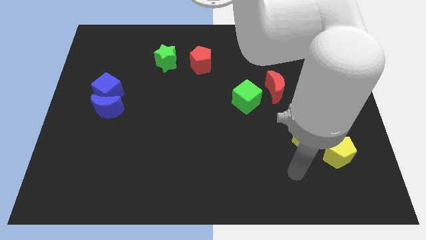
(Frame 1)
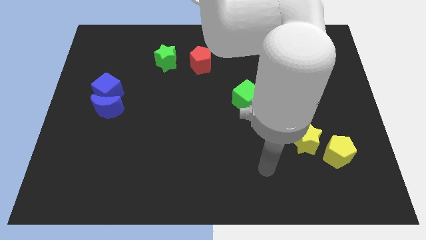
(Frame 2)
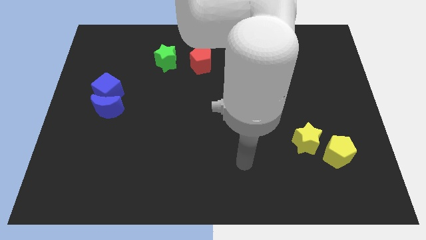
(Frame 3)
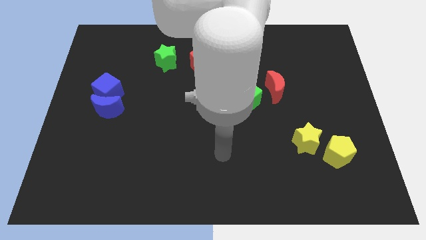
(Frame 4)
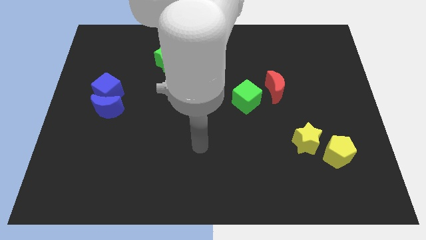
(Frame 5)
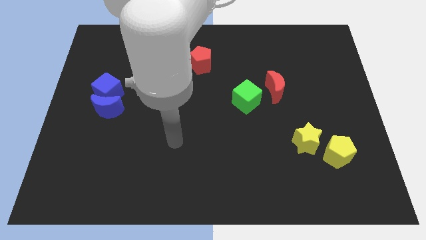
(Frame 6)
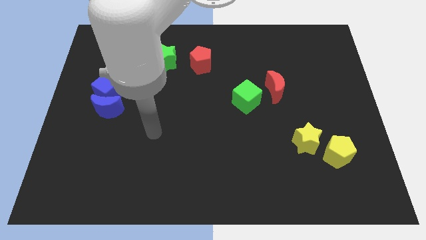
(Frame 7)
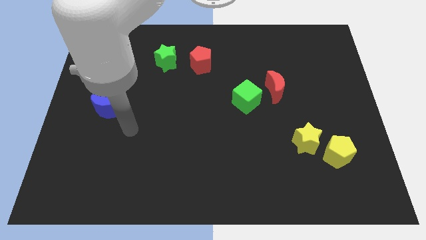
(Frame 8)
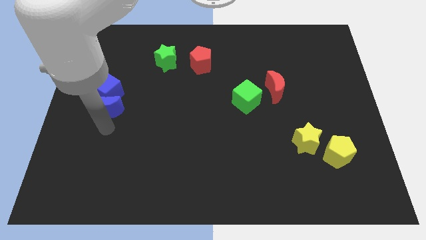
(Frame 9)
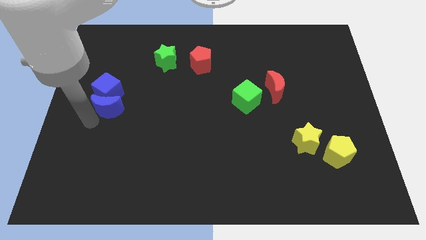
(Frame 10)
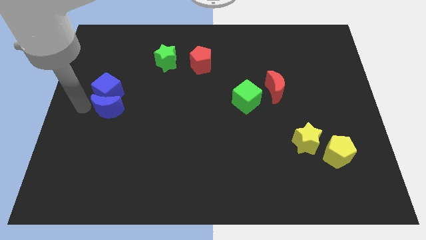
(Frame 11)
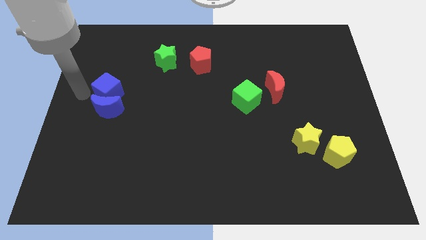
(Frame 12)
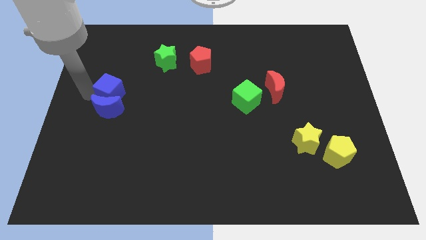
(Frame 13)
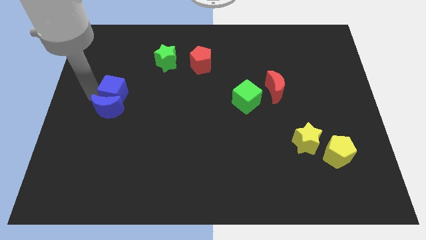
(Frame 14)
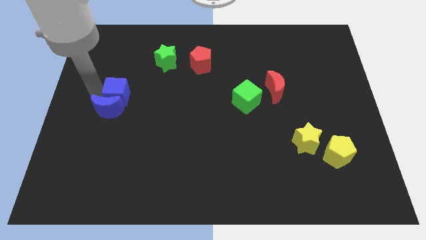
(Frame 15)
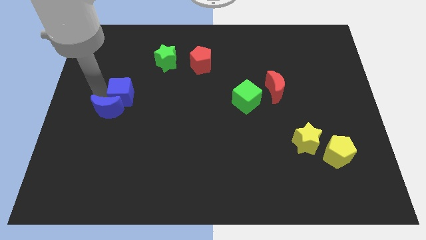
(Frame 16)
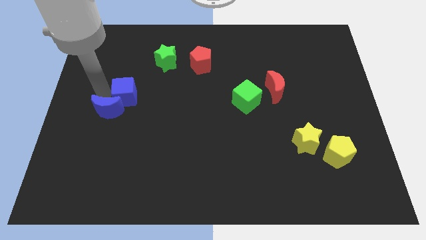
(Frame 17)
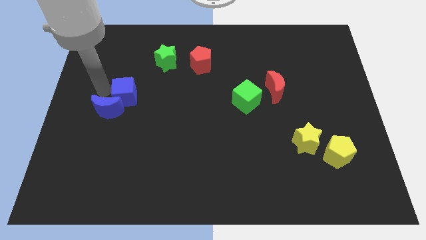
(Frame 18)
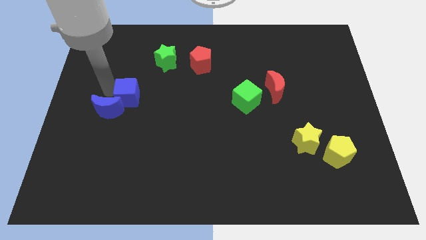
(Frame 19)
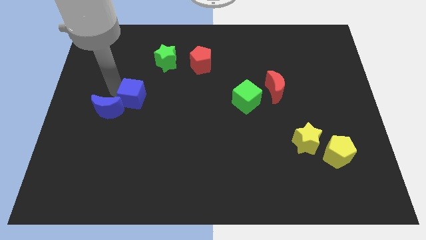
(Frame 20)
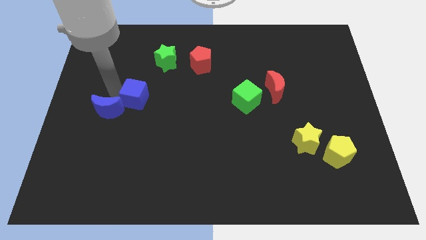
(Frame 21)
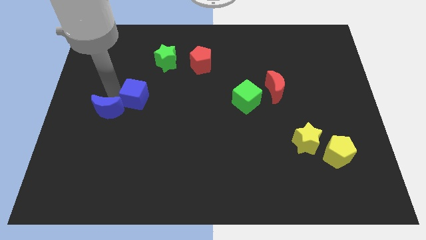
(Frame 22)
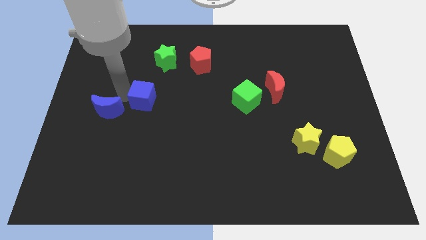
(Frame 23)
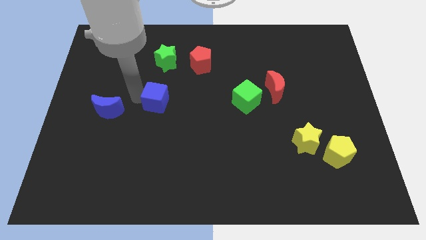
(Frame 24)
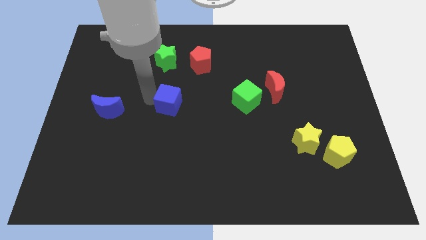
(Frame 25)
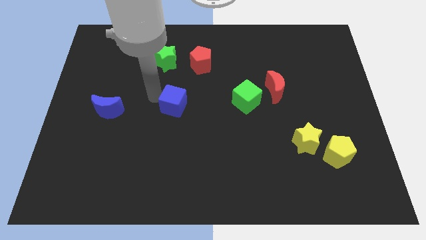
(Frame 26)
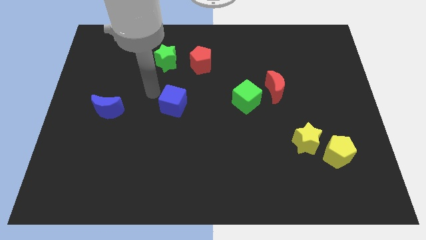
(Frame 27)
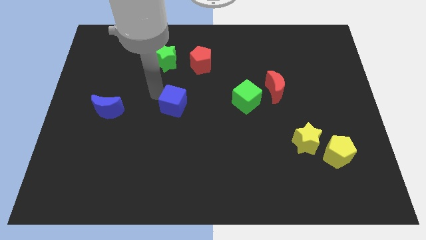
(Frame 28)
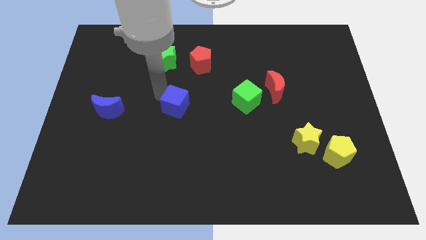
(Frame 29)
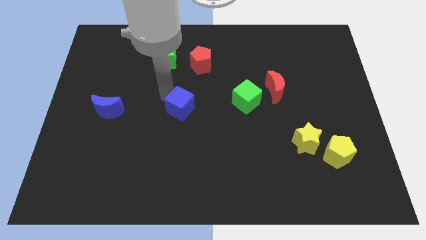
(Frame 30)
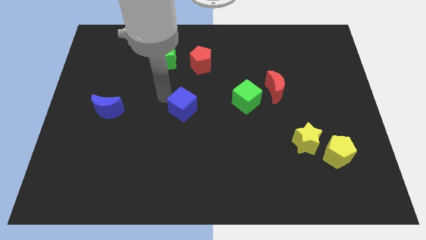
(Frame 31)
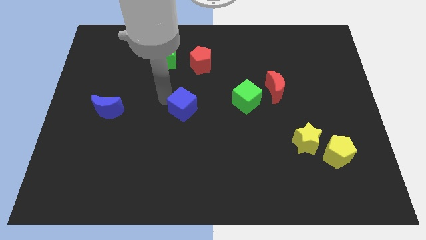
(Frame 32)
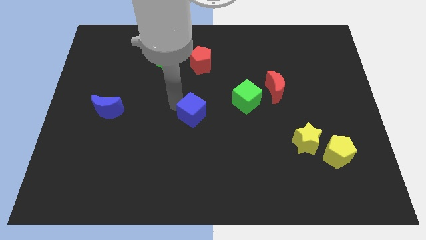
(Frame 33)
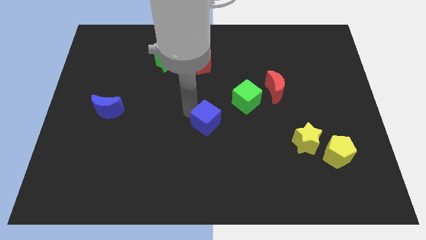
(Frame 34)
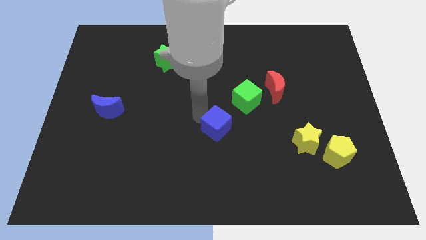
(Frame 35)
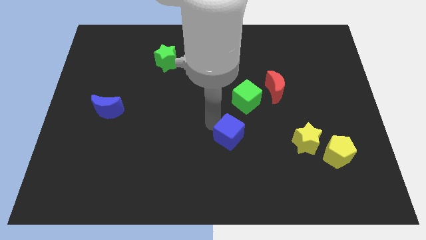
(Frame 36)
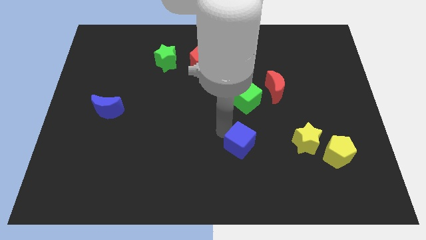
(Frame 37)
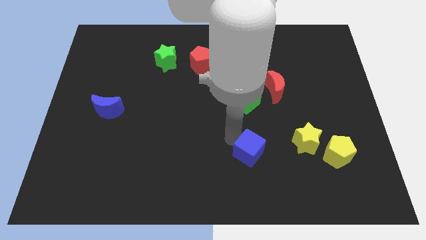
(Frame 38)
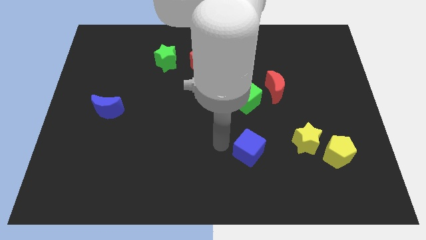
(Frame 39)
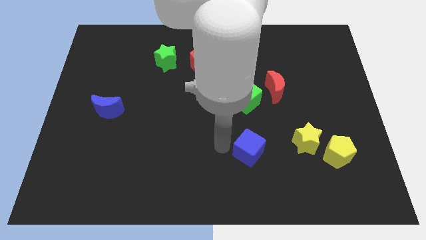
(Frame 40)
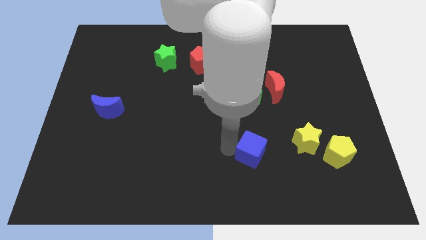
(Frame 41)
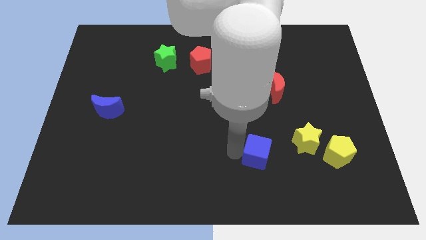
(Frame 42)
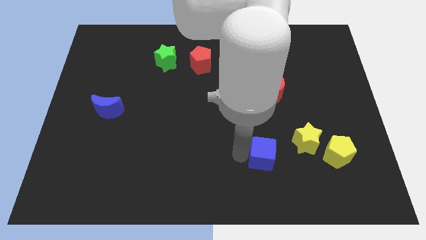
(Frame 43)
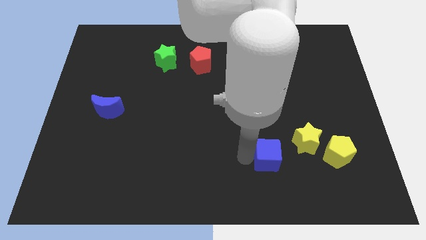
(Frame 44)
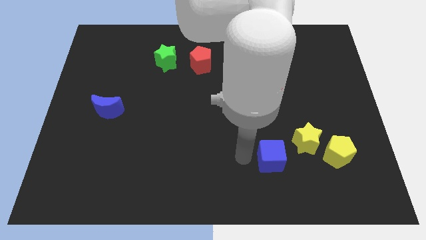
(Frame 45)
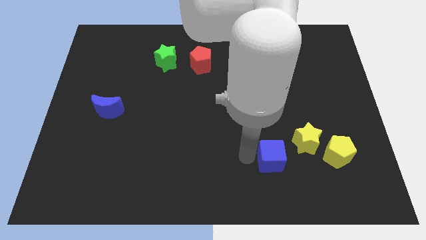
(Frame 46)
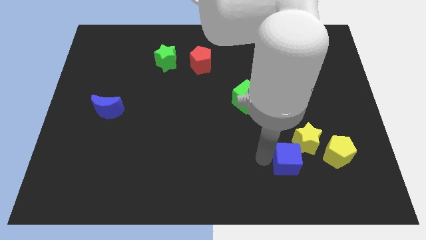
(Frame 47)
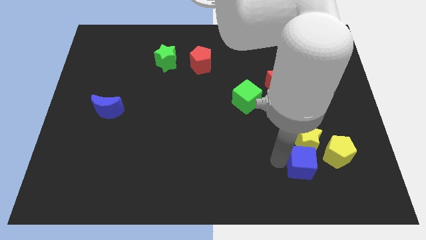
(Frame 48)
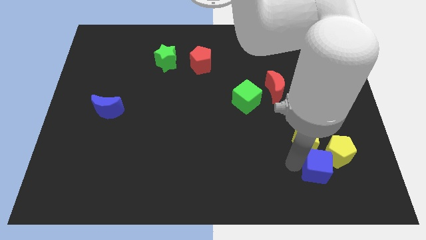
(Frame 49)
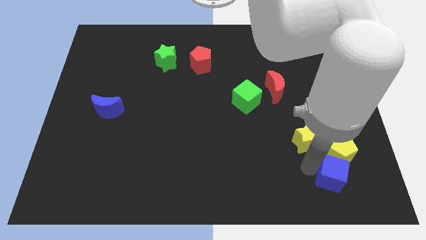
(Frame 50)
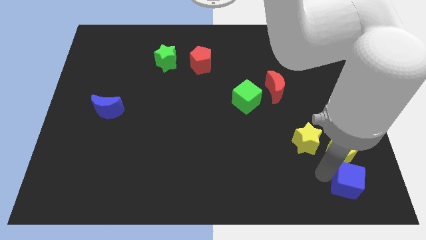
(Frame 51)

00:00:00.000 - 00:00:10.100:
put the blue cube to the bottom right

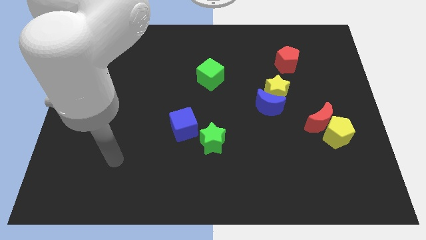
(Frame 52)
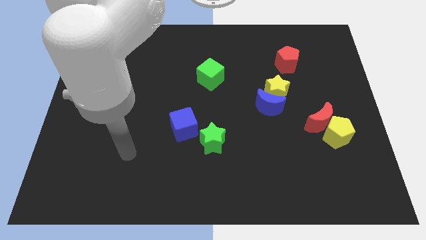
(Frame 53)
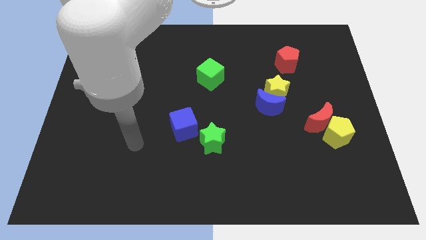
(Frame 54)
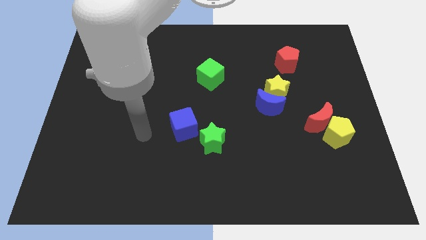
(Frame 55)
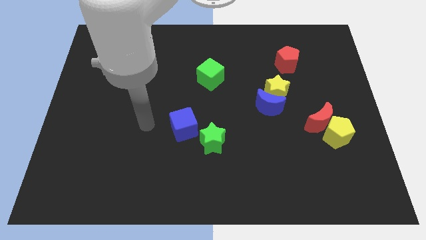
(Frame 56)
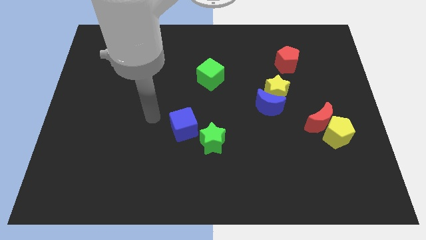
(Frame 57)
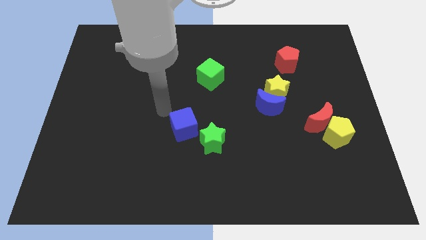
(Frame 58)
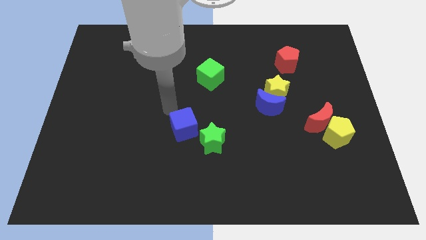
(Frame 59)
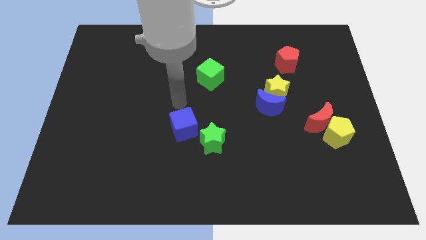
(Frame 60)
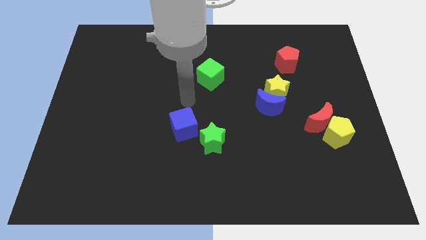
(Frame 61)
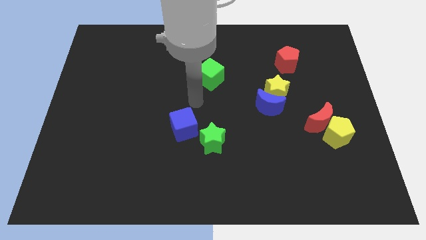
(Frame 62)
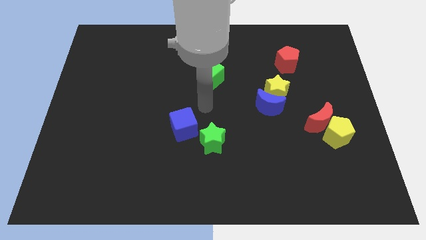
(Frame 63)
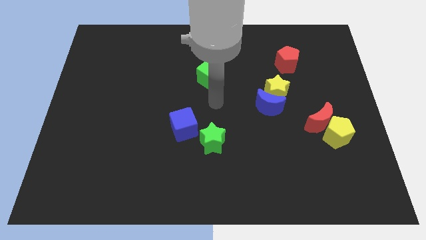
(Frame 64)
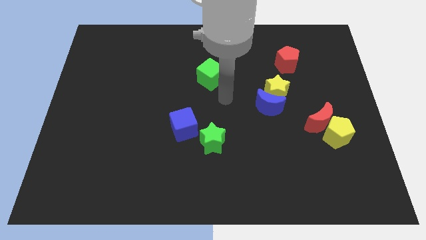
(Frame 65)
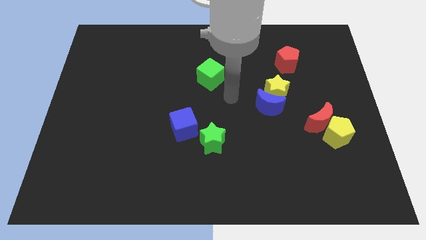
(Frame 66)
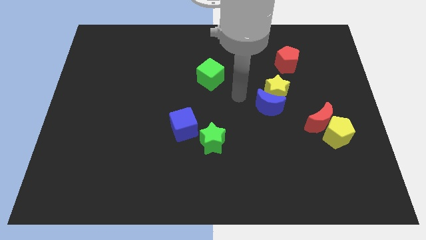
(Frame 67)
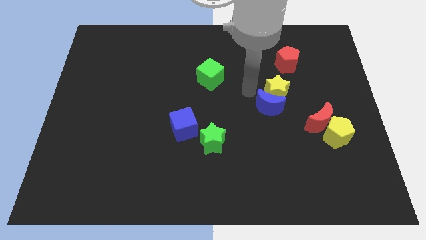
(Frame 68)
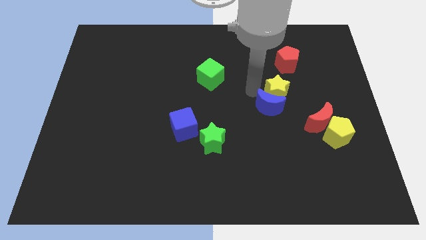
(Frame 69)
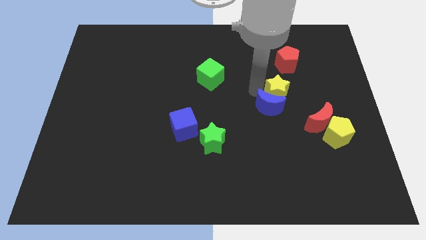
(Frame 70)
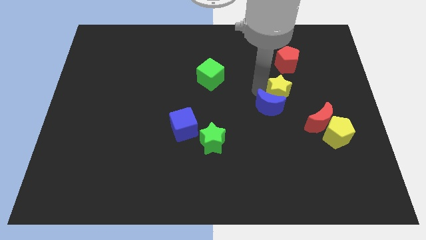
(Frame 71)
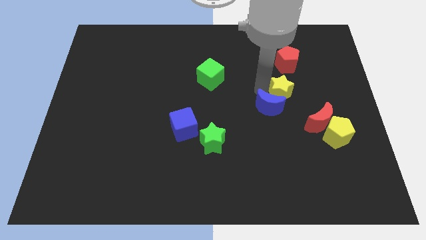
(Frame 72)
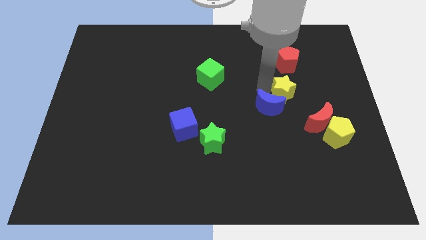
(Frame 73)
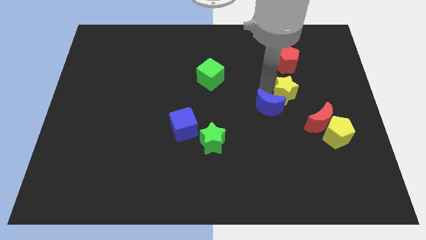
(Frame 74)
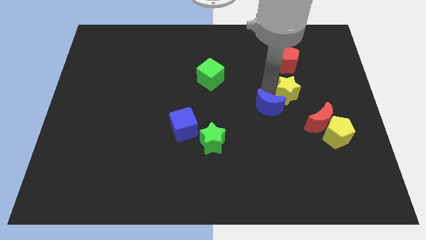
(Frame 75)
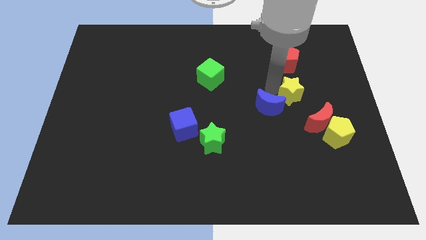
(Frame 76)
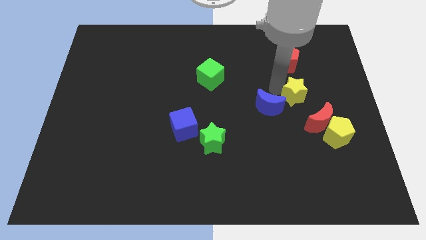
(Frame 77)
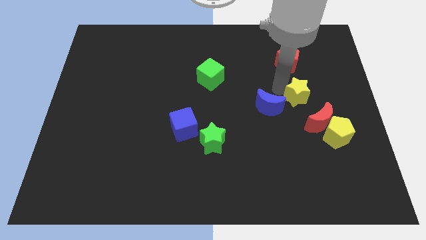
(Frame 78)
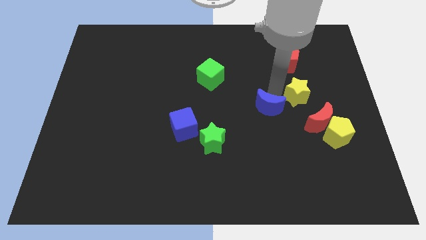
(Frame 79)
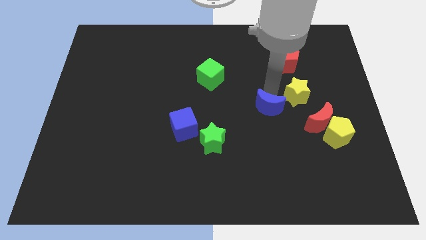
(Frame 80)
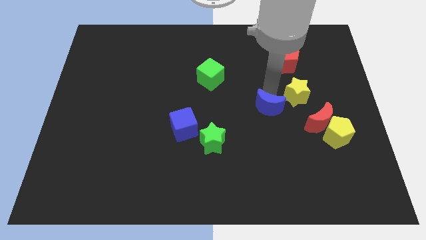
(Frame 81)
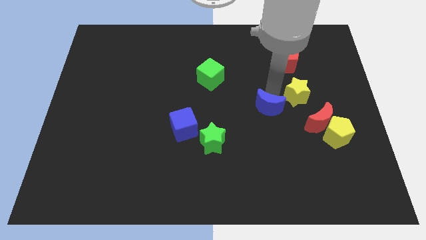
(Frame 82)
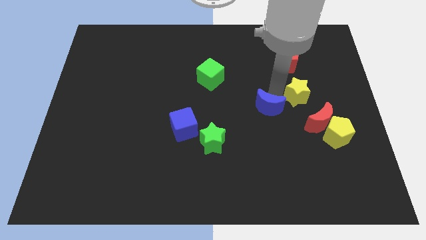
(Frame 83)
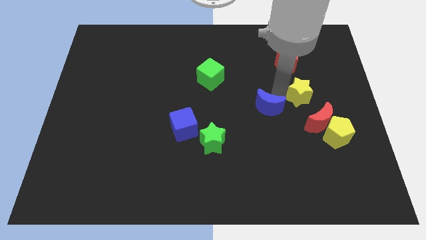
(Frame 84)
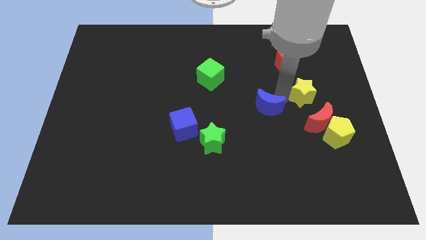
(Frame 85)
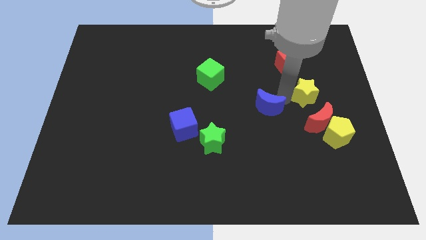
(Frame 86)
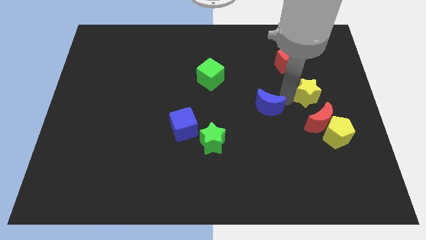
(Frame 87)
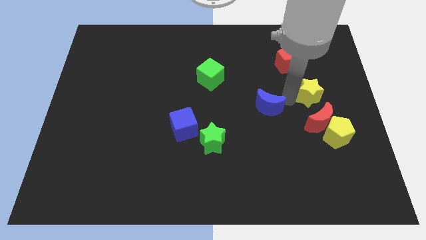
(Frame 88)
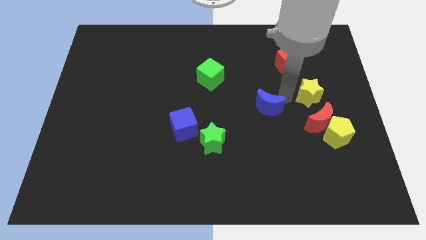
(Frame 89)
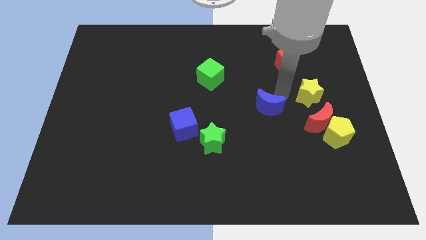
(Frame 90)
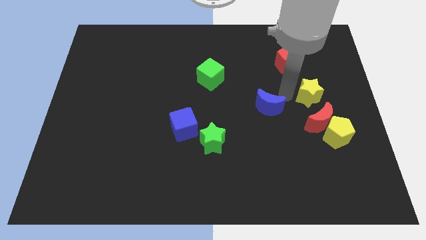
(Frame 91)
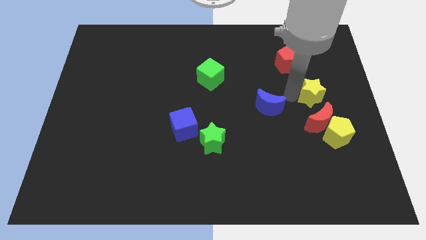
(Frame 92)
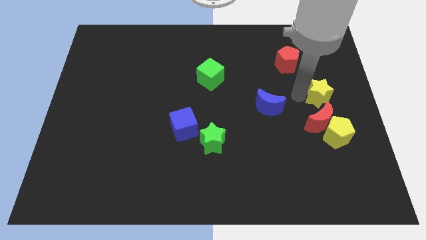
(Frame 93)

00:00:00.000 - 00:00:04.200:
put the yellow star to the right side
